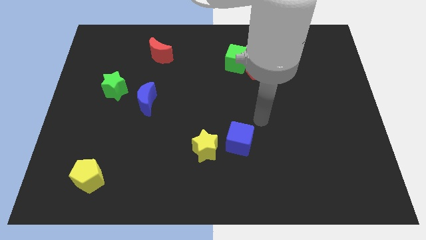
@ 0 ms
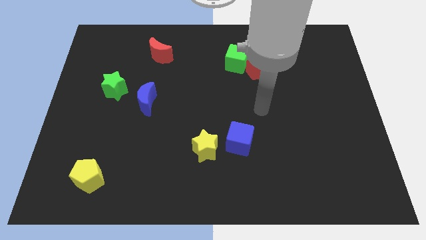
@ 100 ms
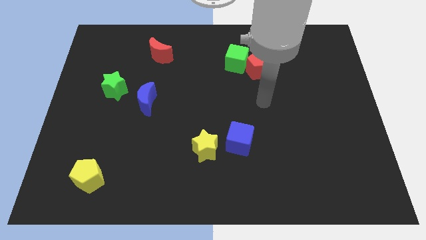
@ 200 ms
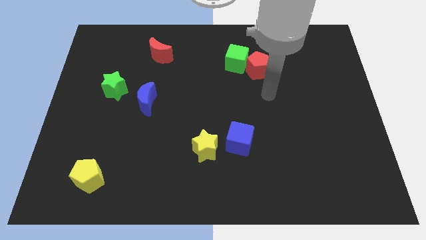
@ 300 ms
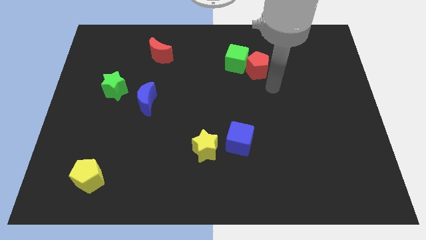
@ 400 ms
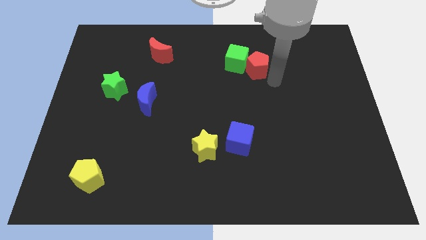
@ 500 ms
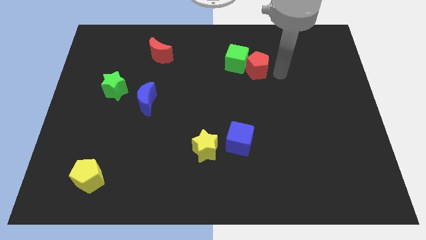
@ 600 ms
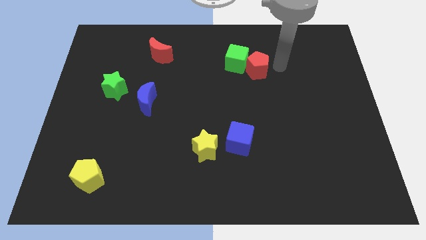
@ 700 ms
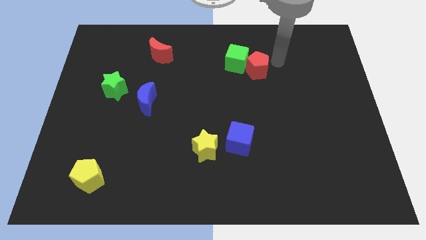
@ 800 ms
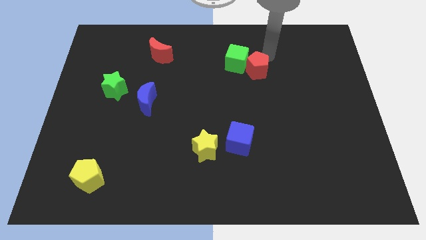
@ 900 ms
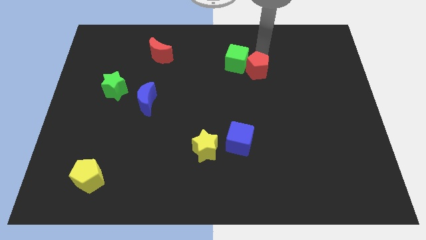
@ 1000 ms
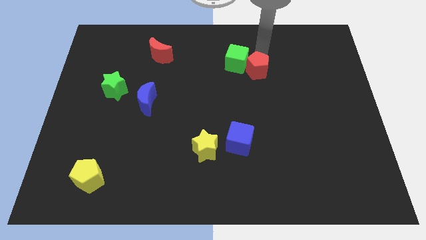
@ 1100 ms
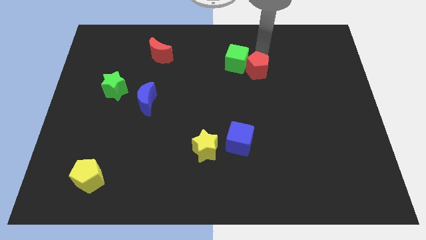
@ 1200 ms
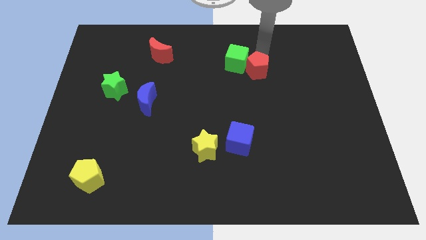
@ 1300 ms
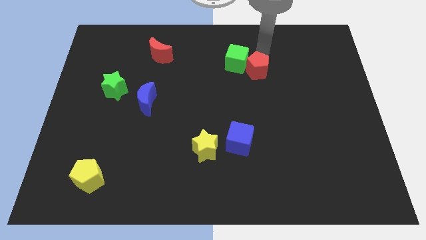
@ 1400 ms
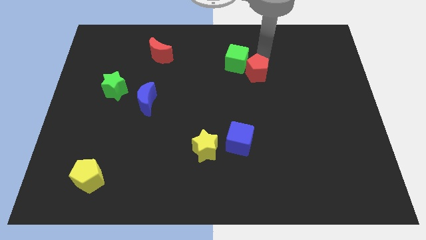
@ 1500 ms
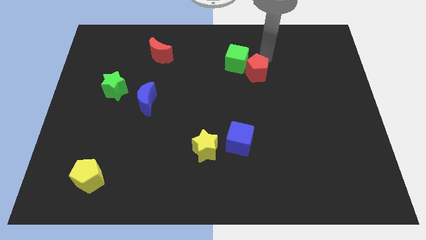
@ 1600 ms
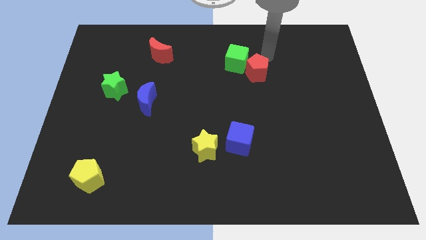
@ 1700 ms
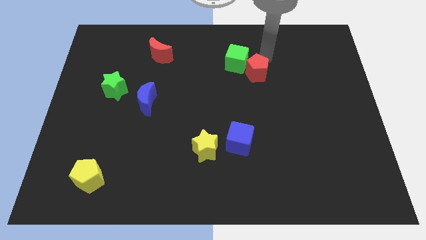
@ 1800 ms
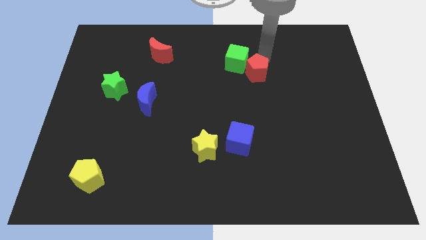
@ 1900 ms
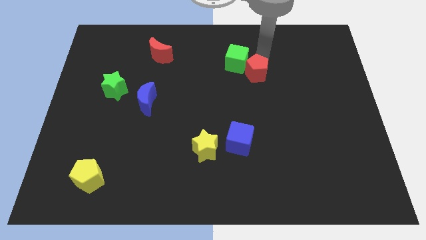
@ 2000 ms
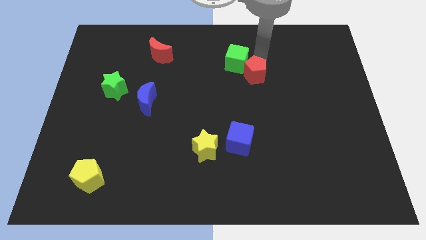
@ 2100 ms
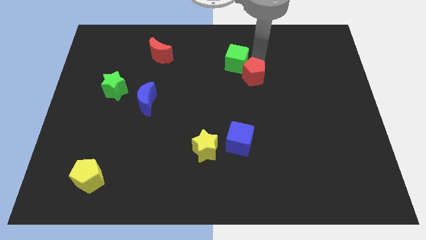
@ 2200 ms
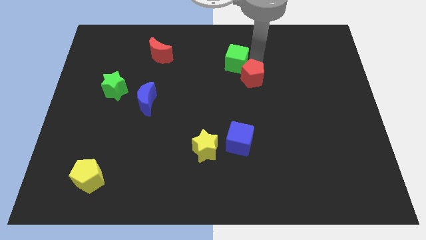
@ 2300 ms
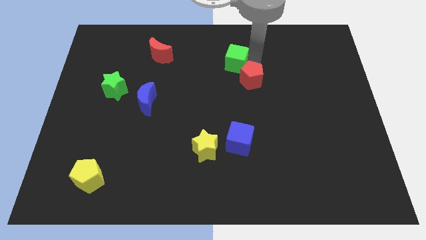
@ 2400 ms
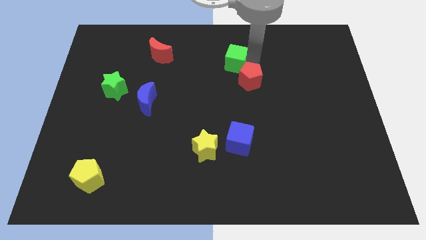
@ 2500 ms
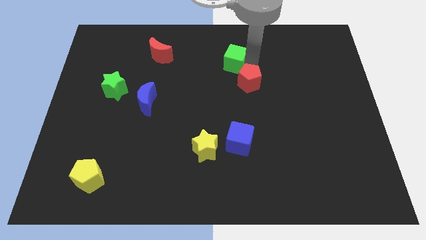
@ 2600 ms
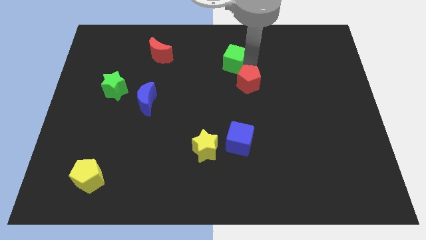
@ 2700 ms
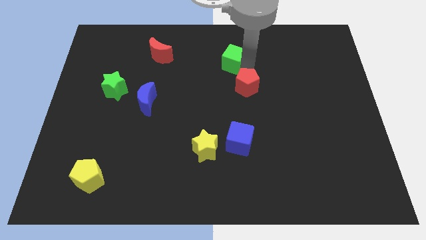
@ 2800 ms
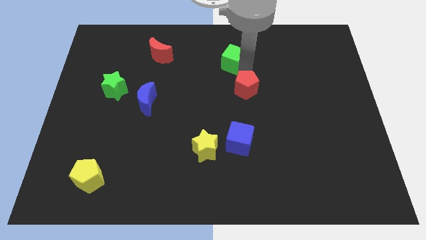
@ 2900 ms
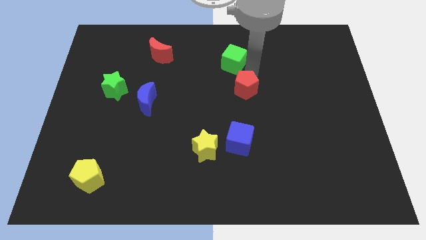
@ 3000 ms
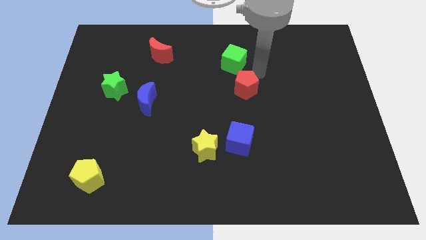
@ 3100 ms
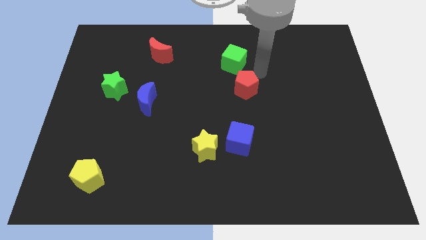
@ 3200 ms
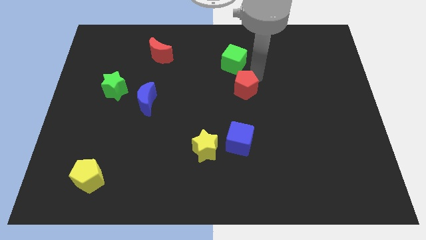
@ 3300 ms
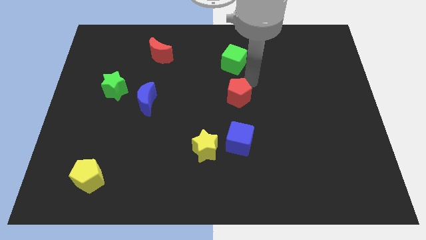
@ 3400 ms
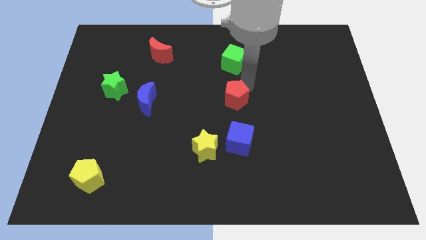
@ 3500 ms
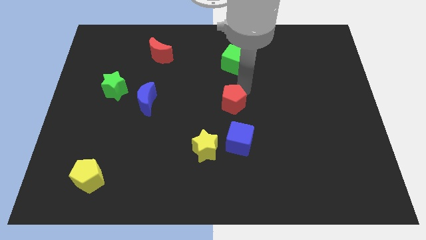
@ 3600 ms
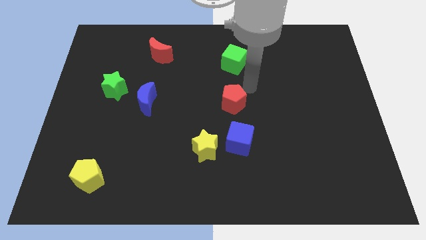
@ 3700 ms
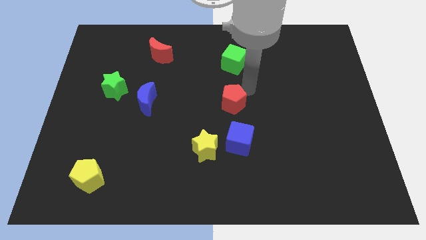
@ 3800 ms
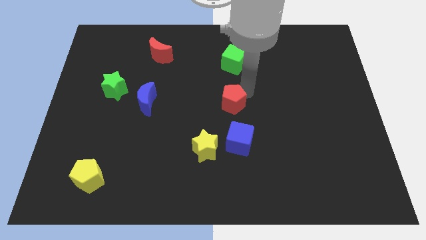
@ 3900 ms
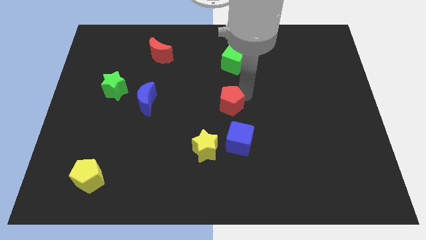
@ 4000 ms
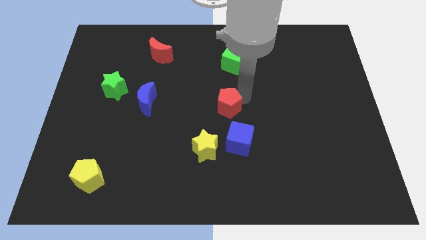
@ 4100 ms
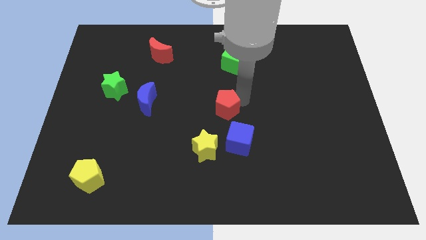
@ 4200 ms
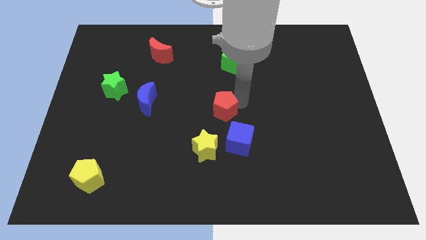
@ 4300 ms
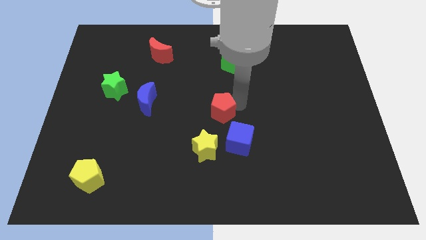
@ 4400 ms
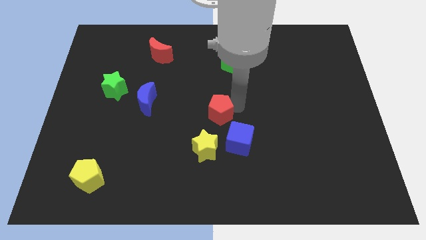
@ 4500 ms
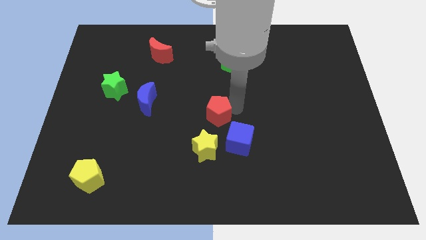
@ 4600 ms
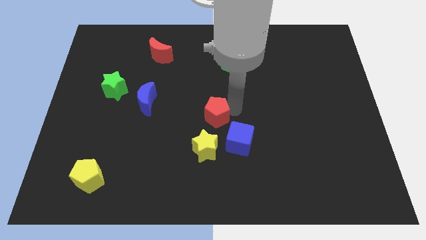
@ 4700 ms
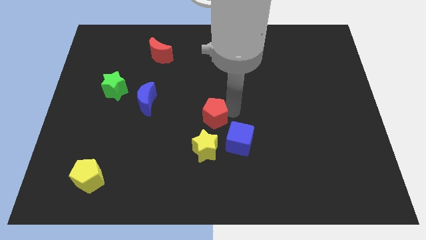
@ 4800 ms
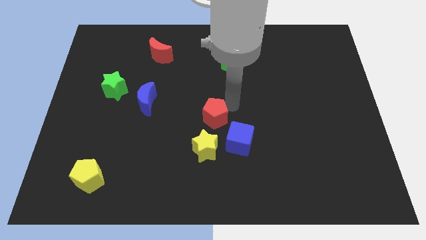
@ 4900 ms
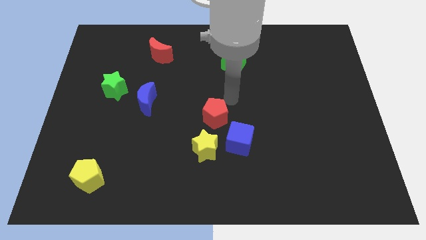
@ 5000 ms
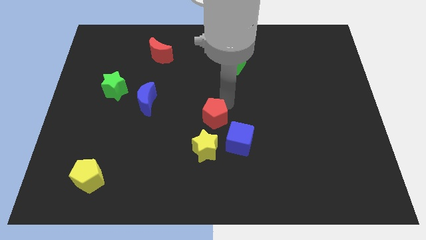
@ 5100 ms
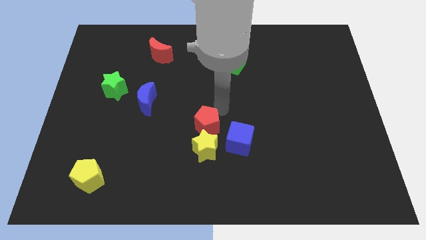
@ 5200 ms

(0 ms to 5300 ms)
move the red pentagon just left of the blue cube

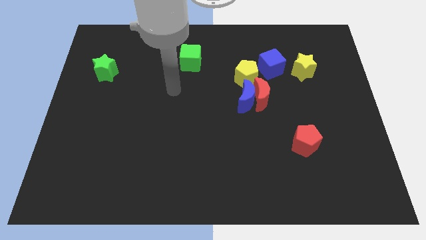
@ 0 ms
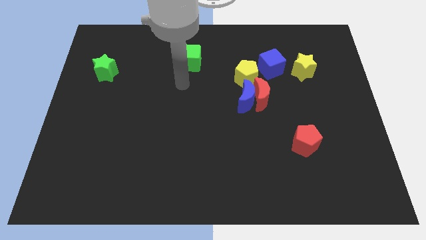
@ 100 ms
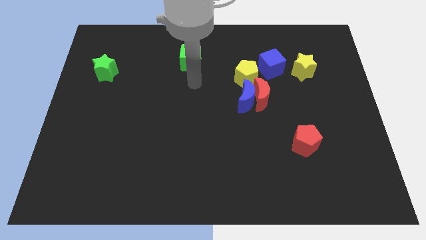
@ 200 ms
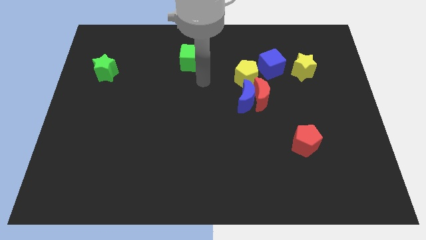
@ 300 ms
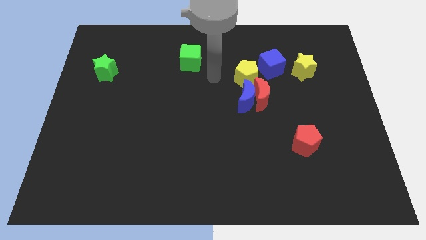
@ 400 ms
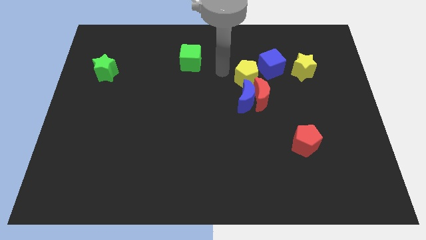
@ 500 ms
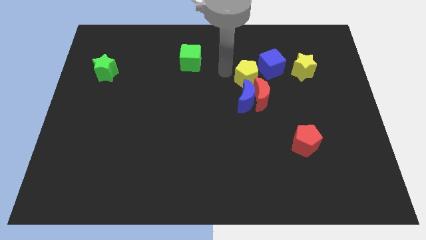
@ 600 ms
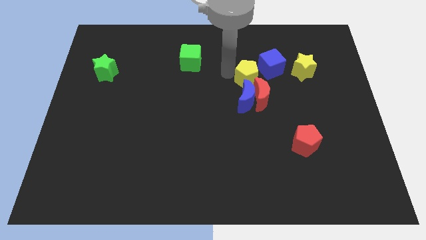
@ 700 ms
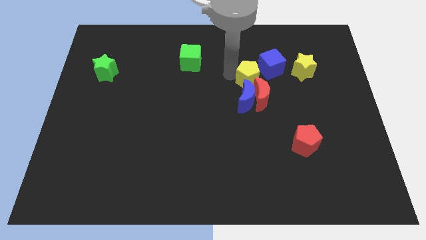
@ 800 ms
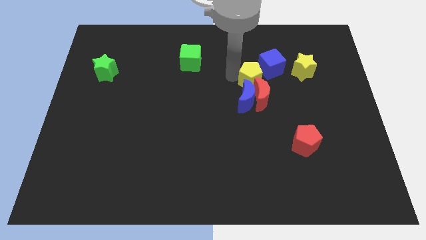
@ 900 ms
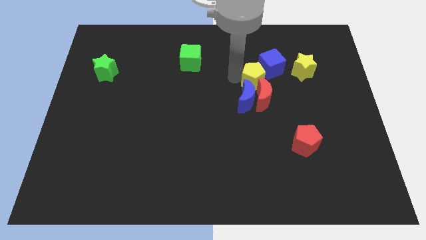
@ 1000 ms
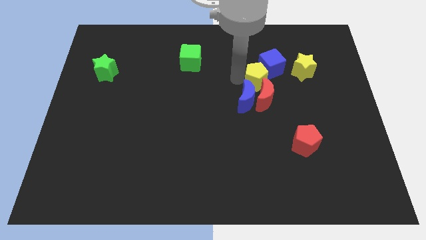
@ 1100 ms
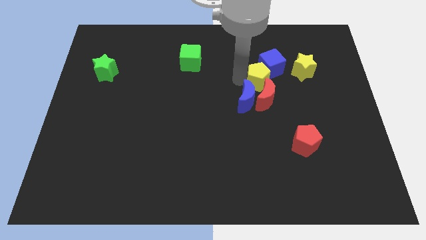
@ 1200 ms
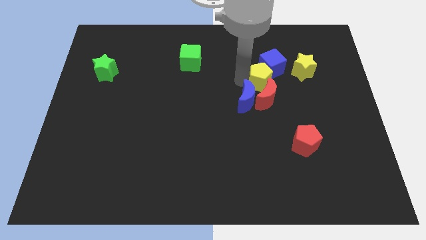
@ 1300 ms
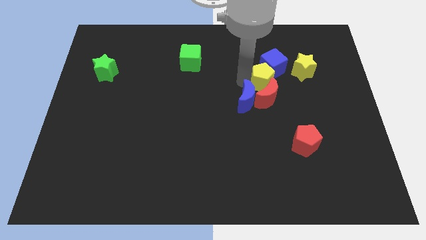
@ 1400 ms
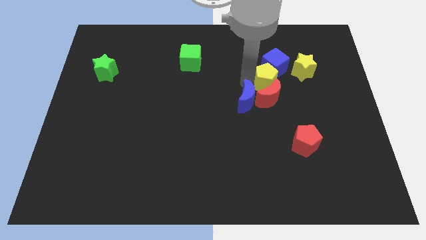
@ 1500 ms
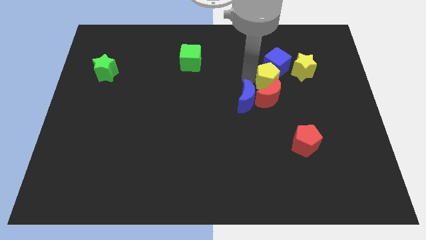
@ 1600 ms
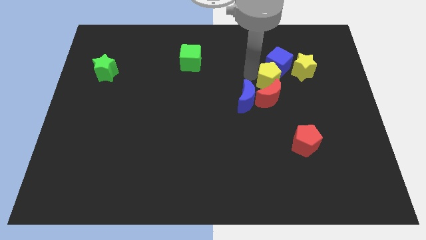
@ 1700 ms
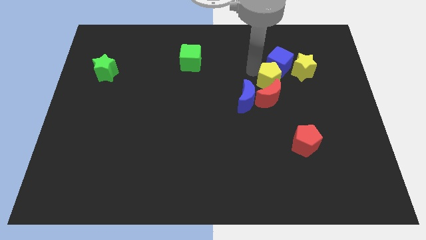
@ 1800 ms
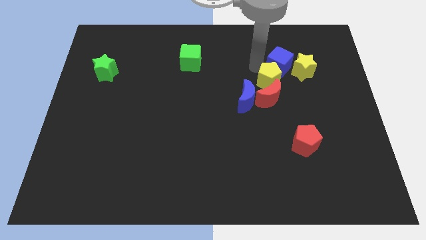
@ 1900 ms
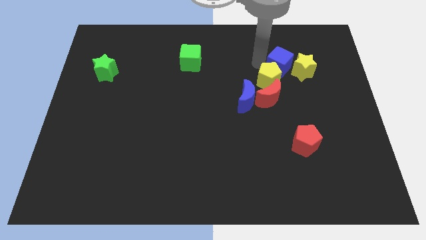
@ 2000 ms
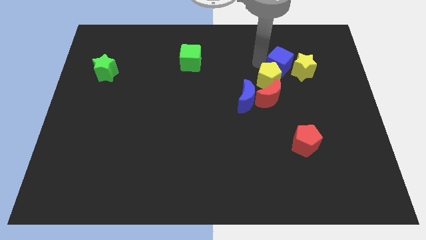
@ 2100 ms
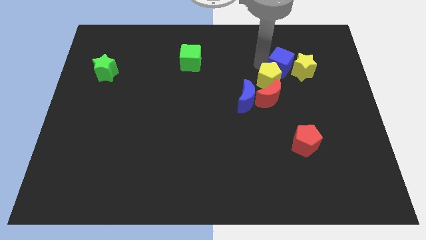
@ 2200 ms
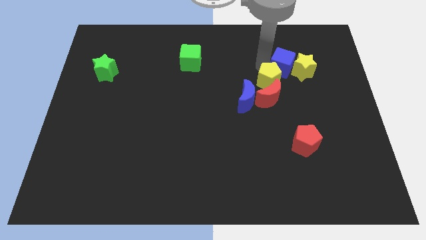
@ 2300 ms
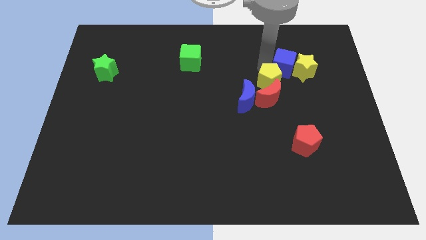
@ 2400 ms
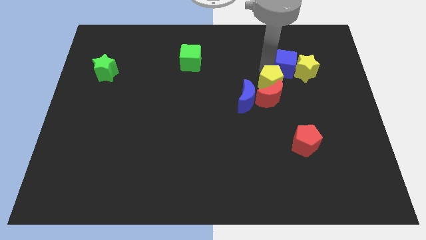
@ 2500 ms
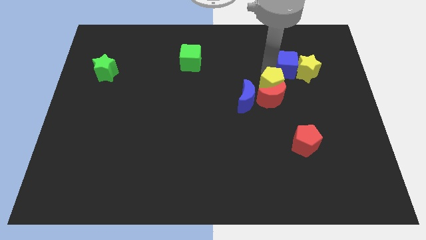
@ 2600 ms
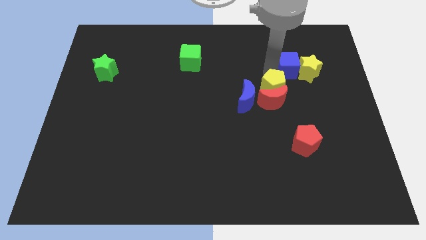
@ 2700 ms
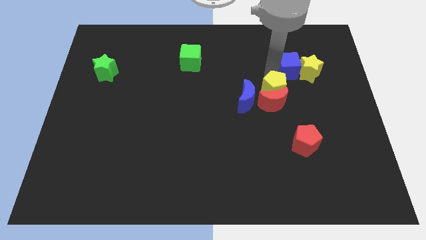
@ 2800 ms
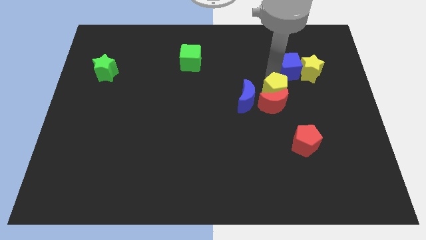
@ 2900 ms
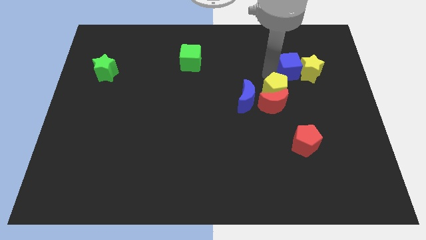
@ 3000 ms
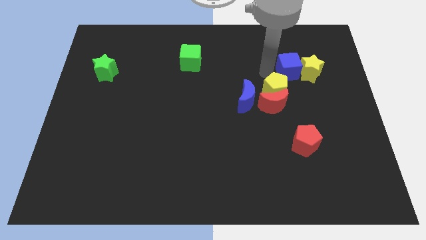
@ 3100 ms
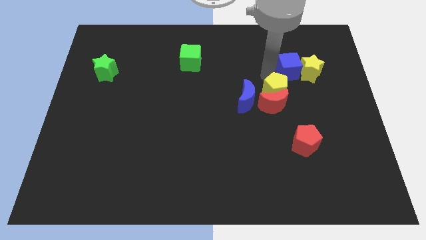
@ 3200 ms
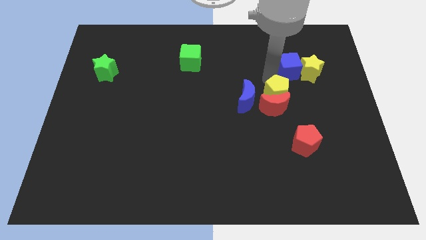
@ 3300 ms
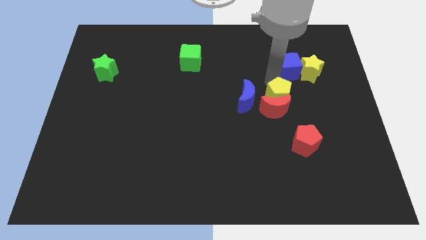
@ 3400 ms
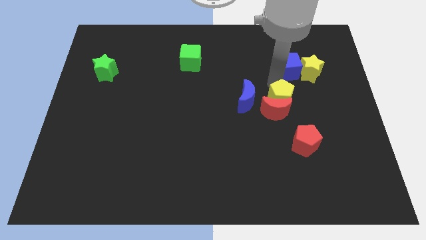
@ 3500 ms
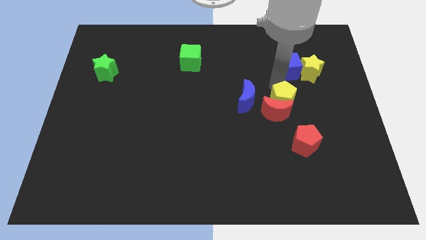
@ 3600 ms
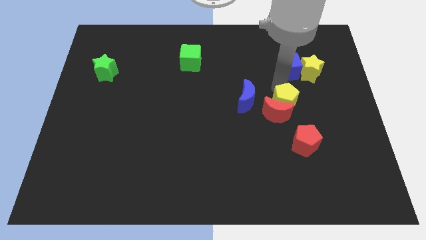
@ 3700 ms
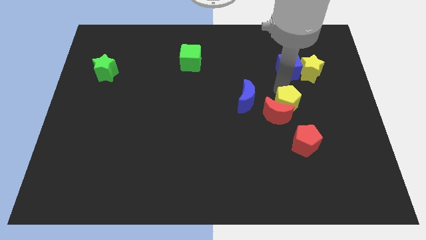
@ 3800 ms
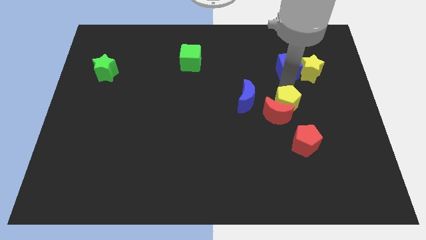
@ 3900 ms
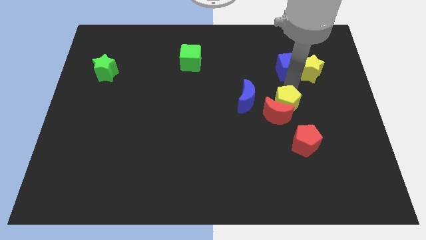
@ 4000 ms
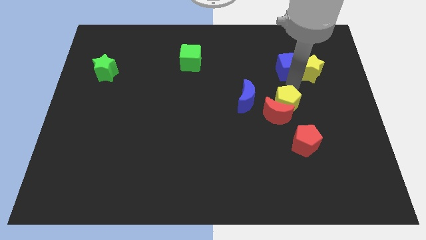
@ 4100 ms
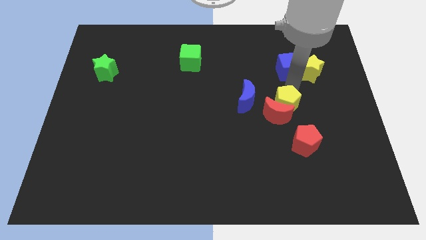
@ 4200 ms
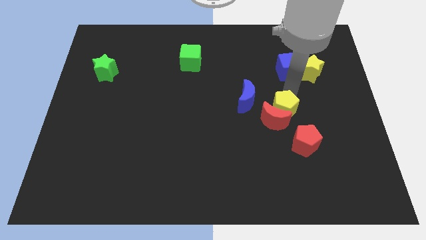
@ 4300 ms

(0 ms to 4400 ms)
move the yellow pentagon to the top left of the red pentagon
